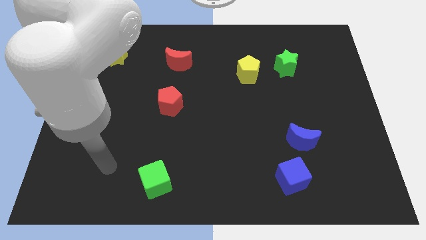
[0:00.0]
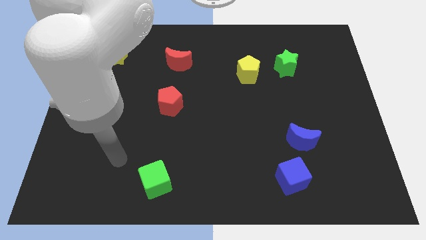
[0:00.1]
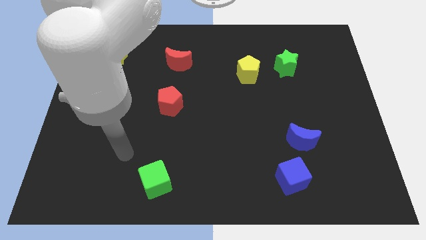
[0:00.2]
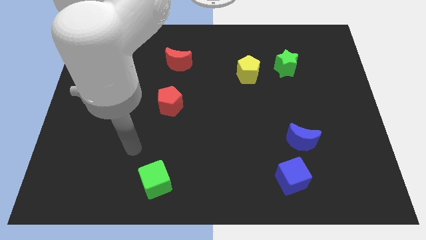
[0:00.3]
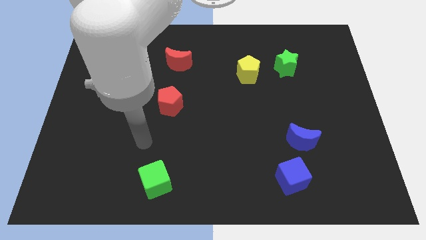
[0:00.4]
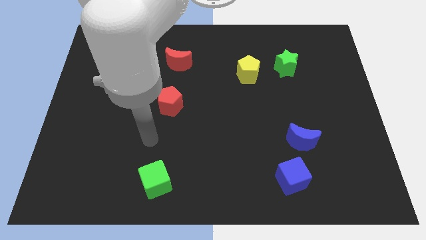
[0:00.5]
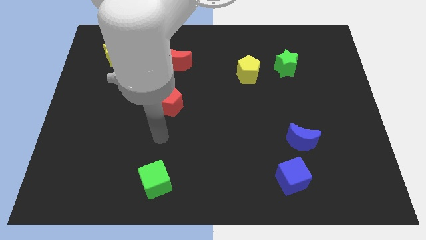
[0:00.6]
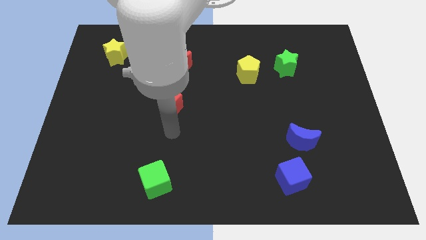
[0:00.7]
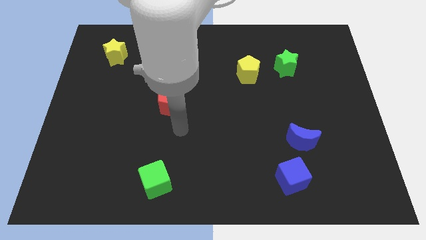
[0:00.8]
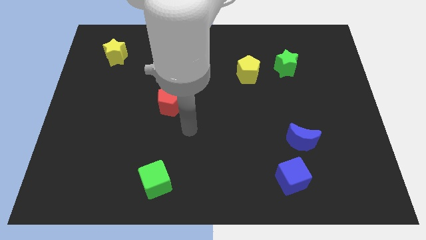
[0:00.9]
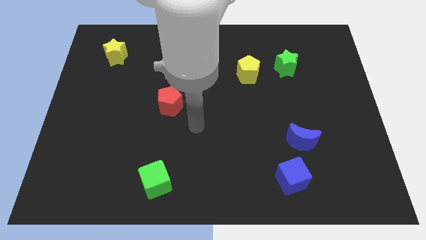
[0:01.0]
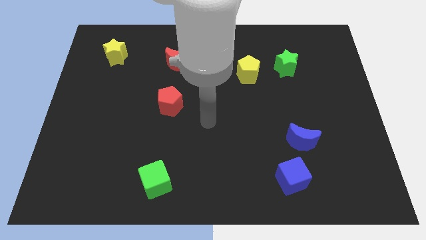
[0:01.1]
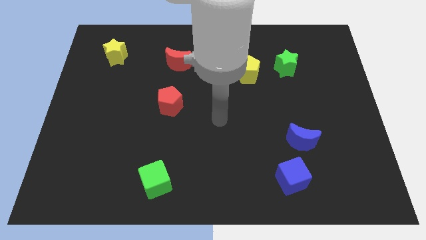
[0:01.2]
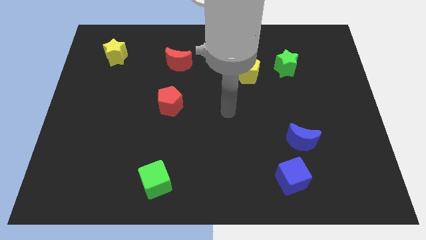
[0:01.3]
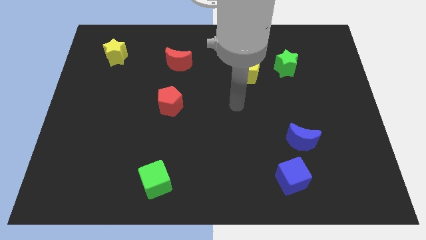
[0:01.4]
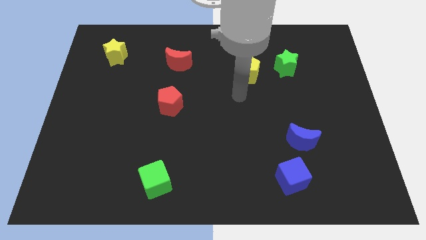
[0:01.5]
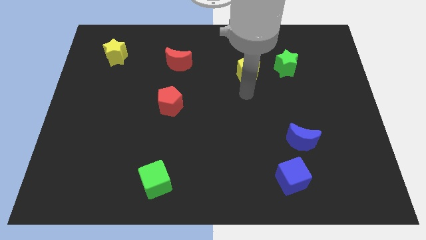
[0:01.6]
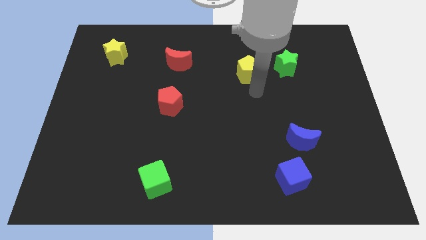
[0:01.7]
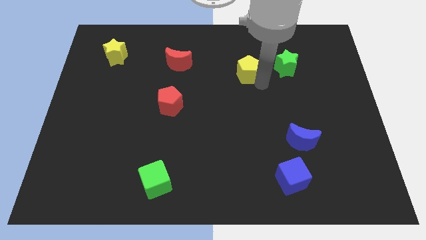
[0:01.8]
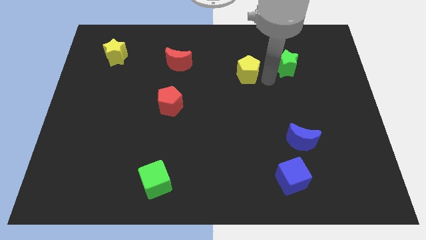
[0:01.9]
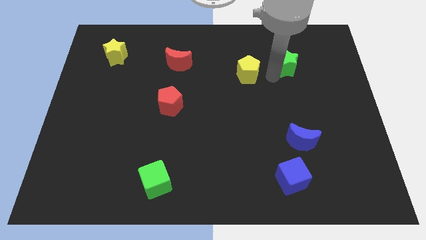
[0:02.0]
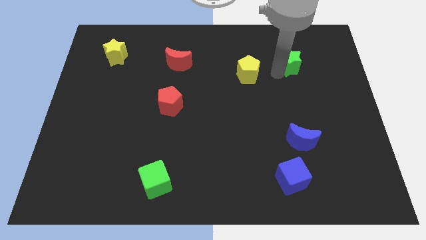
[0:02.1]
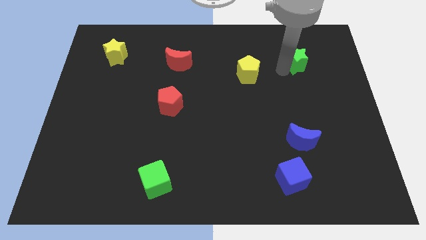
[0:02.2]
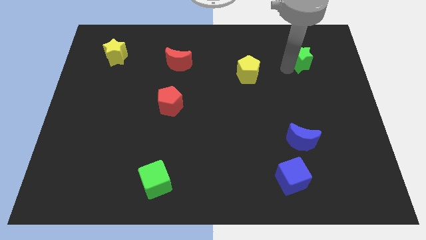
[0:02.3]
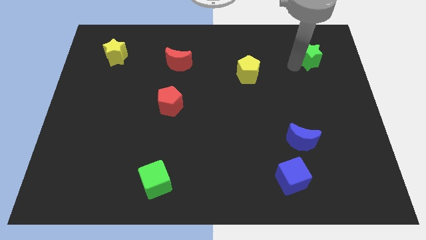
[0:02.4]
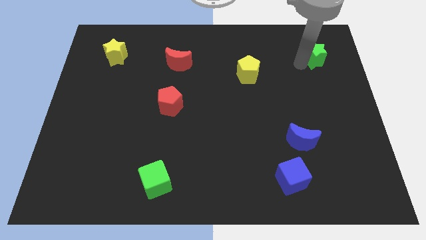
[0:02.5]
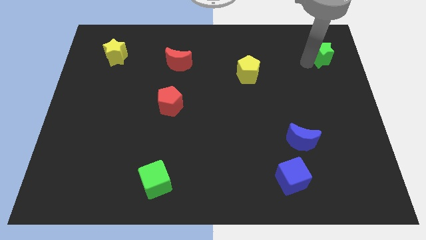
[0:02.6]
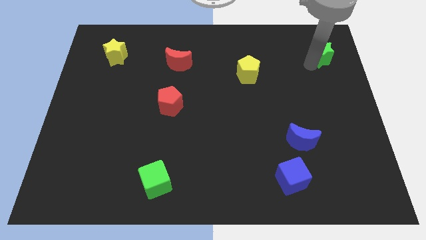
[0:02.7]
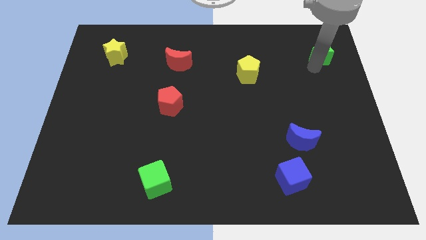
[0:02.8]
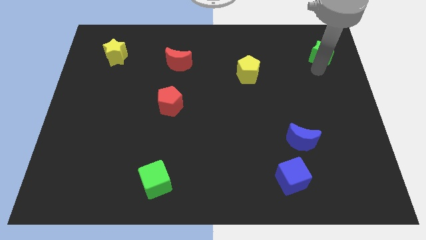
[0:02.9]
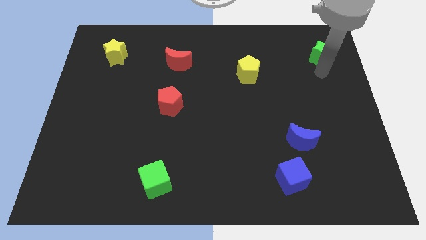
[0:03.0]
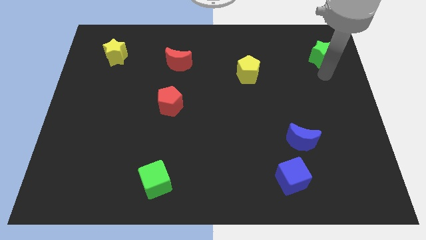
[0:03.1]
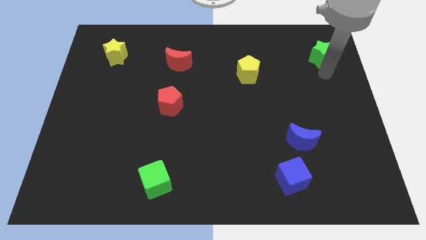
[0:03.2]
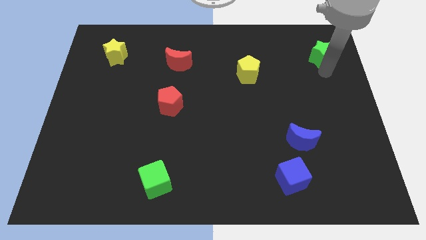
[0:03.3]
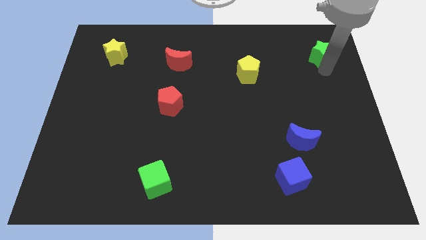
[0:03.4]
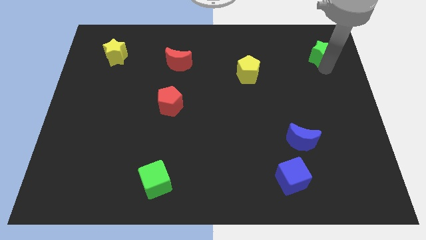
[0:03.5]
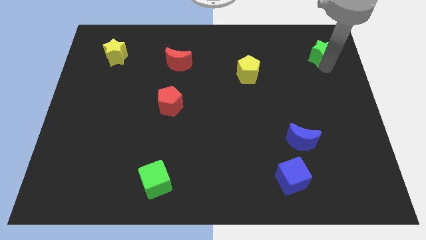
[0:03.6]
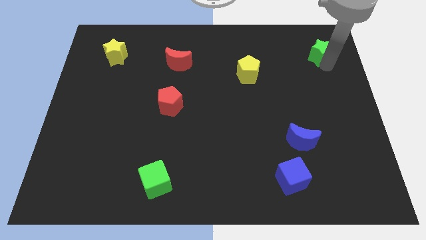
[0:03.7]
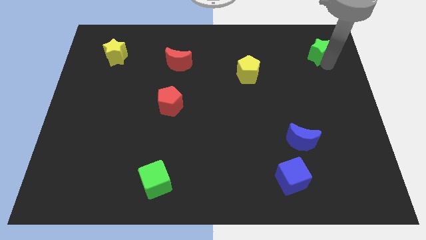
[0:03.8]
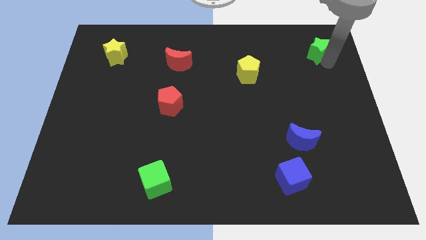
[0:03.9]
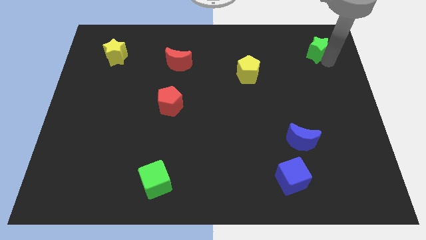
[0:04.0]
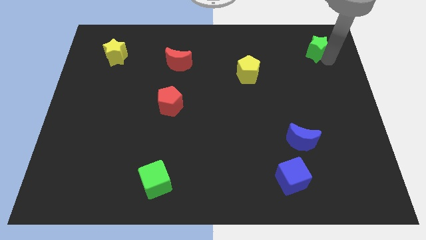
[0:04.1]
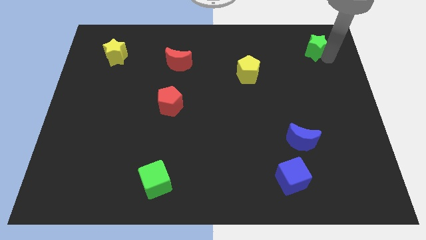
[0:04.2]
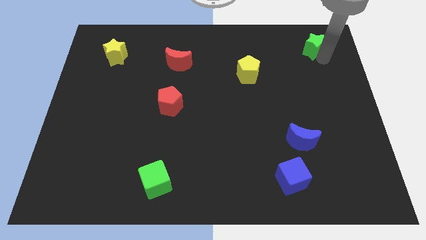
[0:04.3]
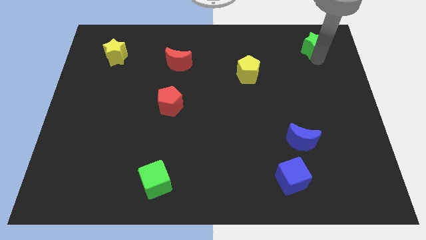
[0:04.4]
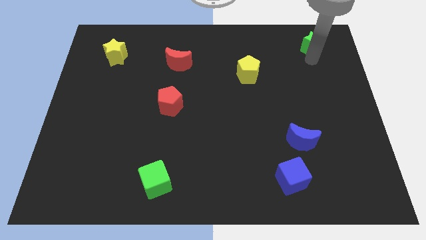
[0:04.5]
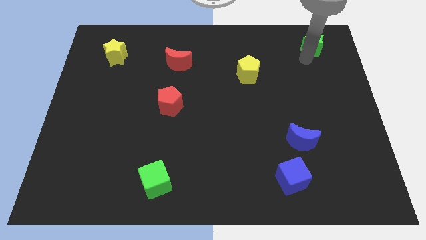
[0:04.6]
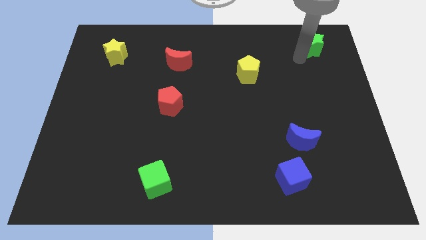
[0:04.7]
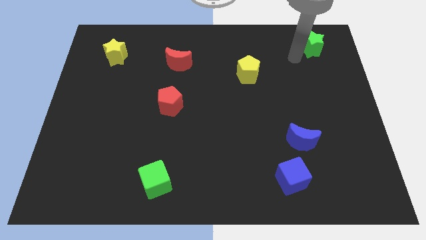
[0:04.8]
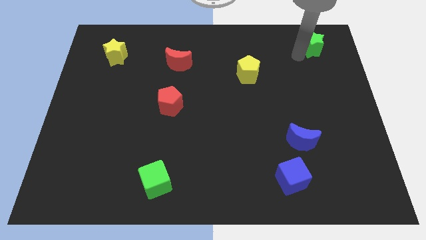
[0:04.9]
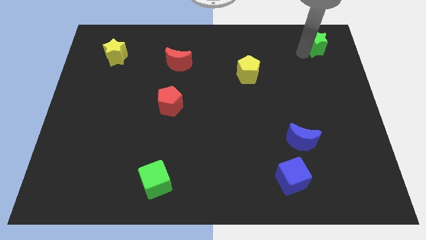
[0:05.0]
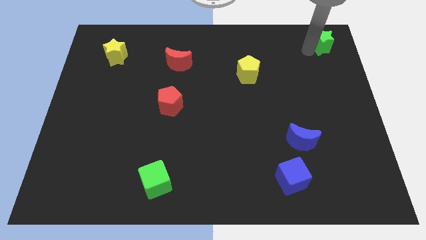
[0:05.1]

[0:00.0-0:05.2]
push the green star to the top right

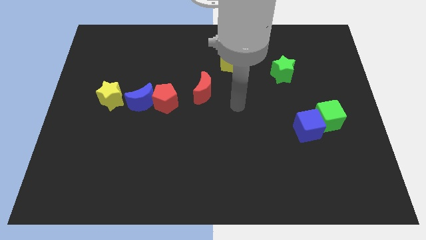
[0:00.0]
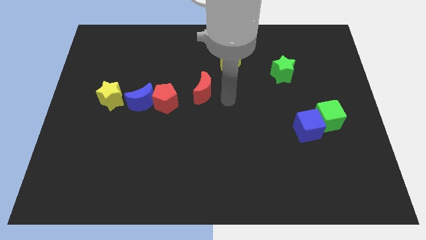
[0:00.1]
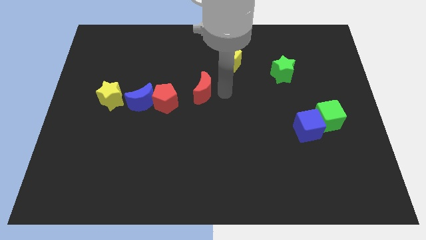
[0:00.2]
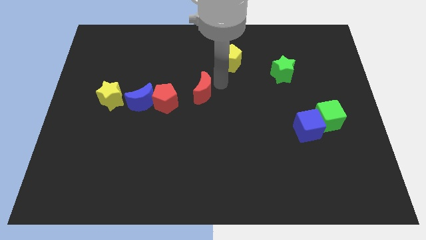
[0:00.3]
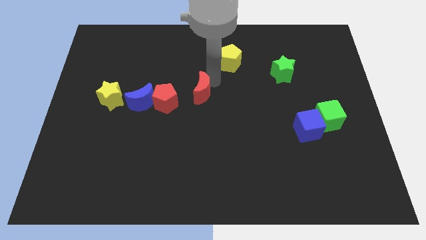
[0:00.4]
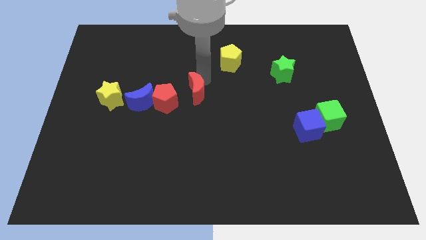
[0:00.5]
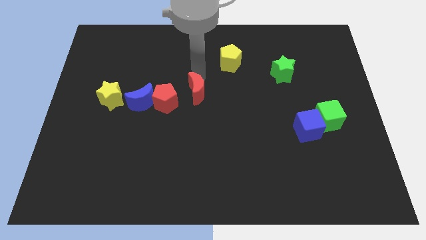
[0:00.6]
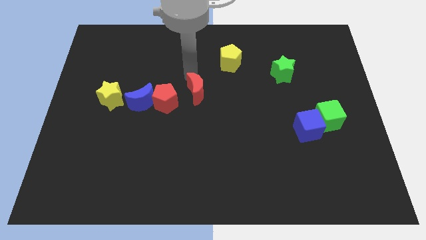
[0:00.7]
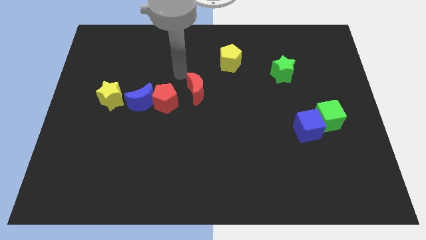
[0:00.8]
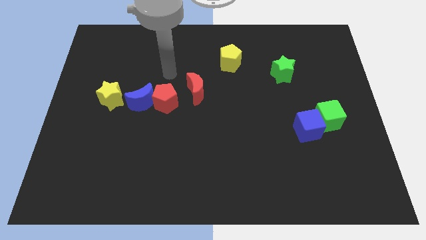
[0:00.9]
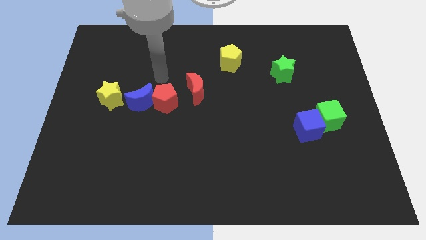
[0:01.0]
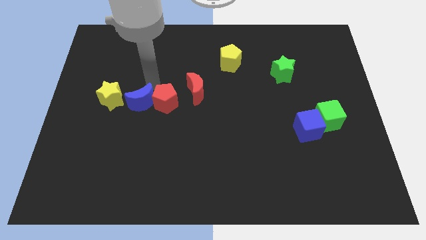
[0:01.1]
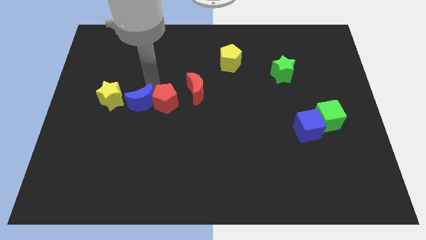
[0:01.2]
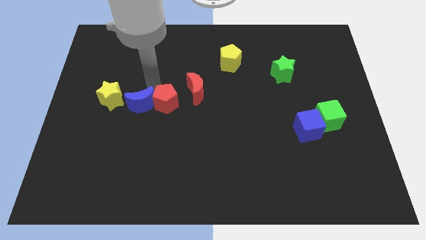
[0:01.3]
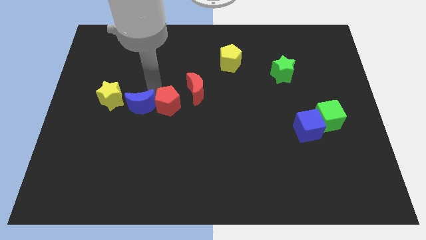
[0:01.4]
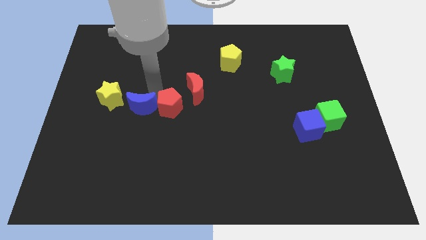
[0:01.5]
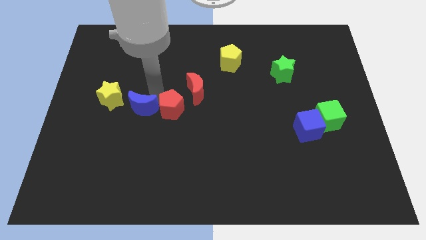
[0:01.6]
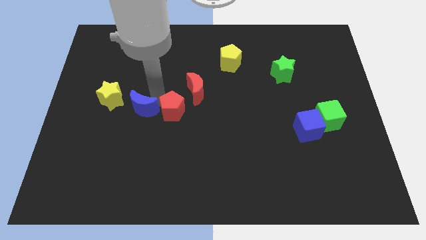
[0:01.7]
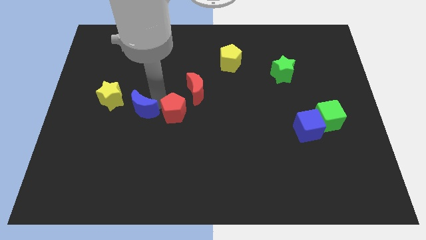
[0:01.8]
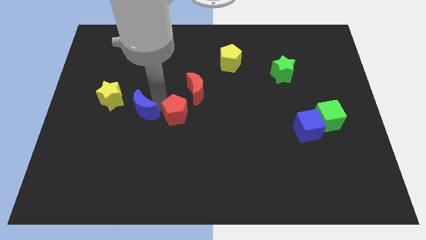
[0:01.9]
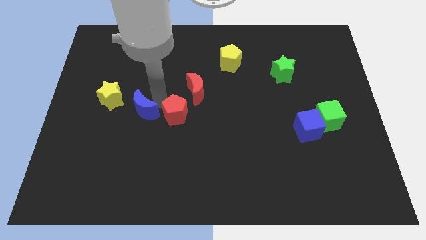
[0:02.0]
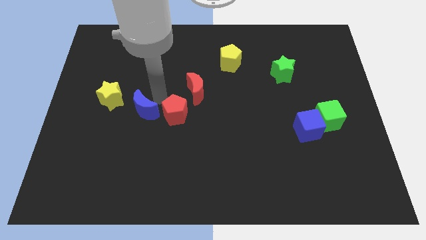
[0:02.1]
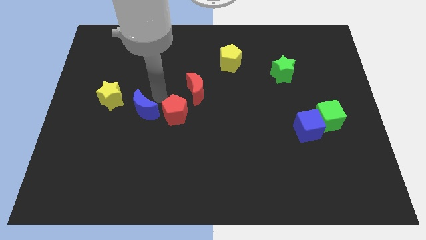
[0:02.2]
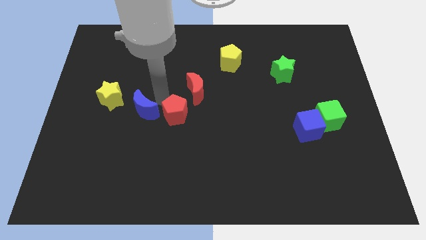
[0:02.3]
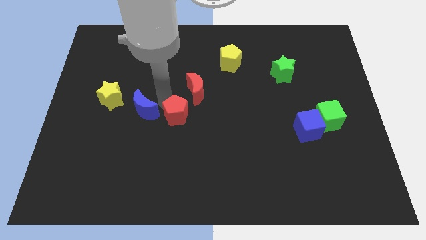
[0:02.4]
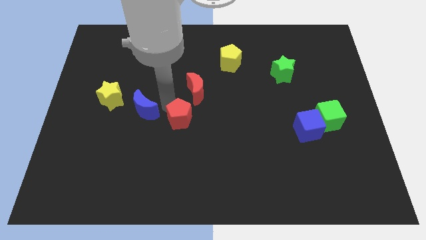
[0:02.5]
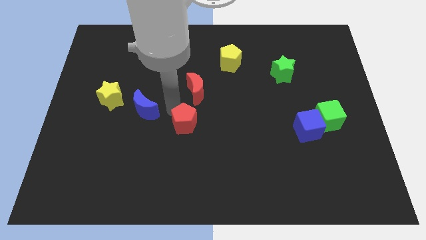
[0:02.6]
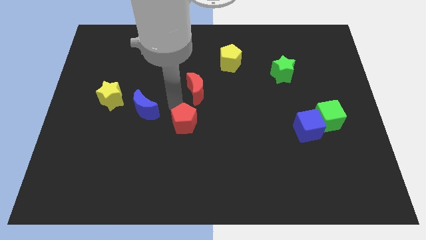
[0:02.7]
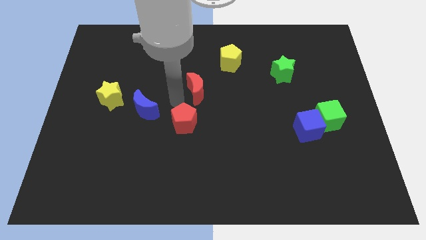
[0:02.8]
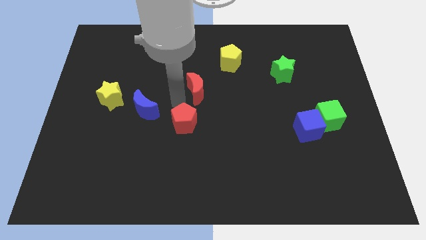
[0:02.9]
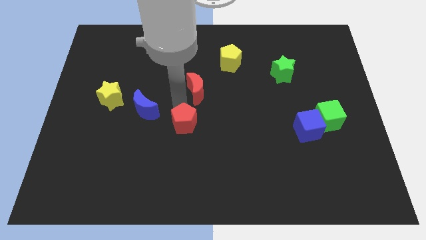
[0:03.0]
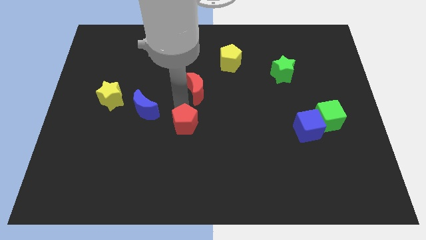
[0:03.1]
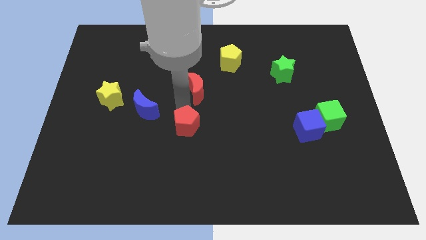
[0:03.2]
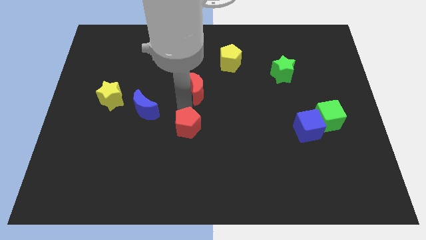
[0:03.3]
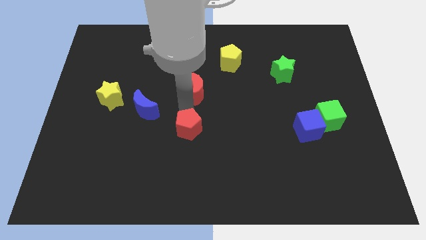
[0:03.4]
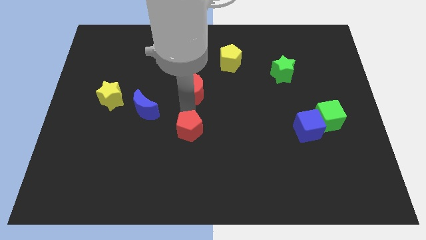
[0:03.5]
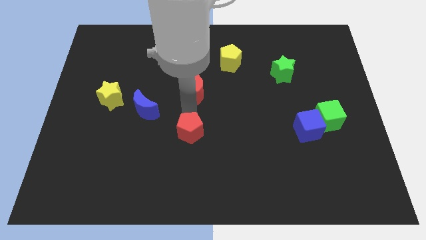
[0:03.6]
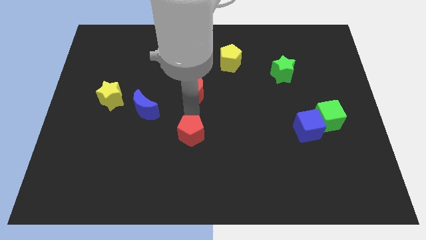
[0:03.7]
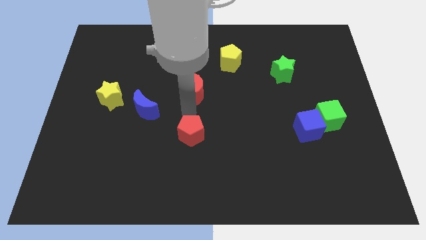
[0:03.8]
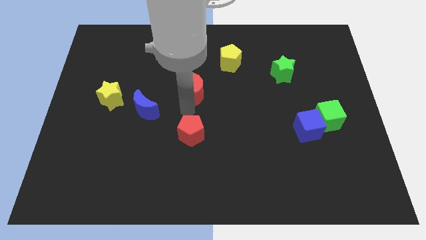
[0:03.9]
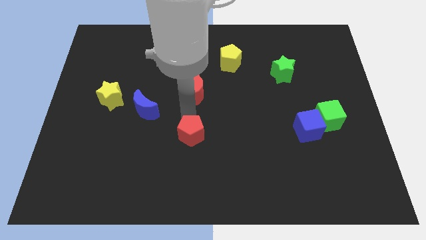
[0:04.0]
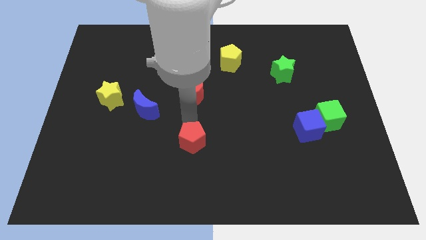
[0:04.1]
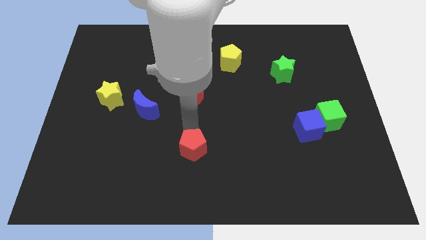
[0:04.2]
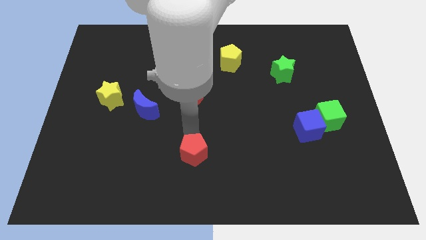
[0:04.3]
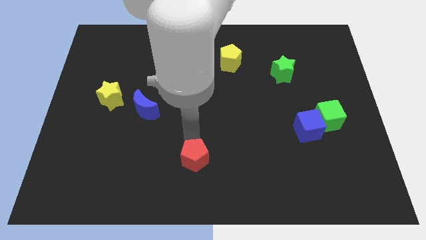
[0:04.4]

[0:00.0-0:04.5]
push the red pentagon to the bottom side
